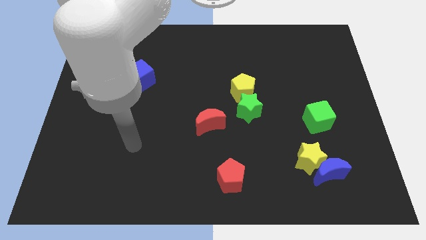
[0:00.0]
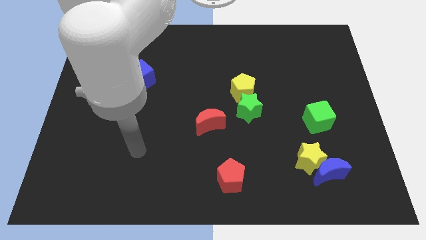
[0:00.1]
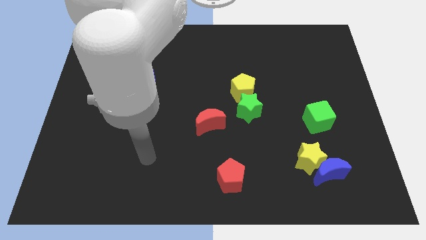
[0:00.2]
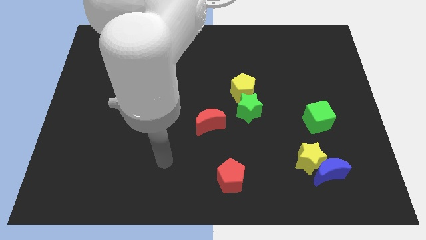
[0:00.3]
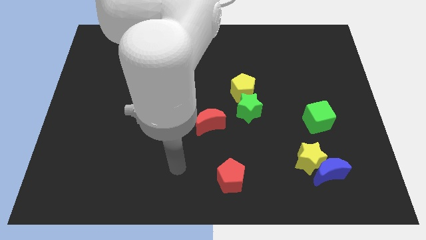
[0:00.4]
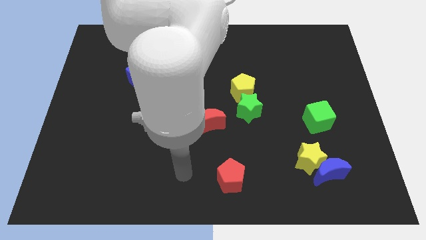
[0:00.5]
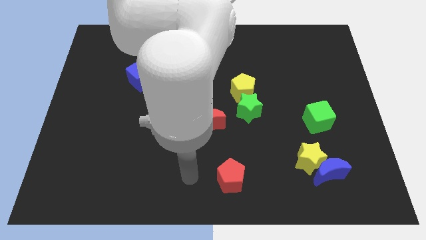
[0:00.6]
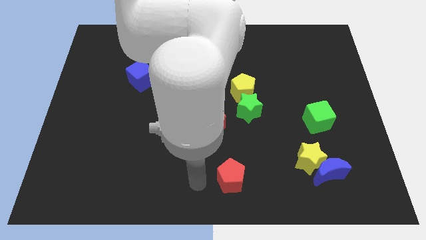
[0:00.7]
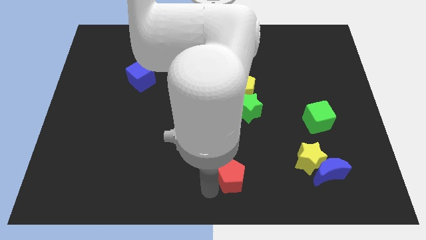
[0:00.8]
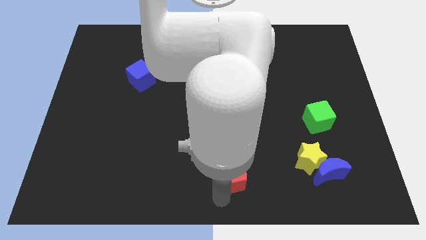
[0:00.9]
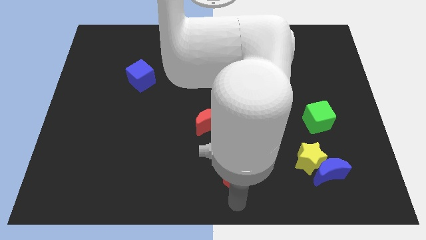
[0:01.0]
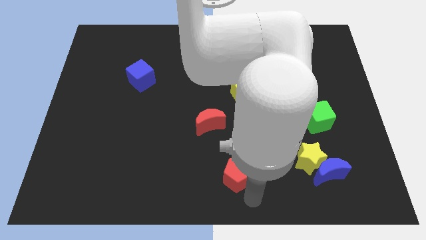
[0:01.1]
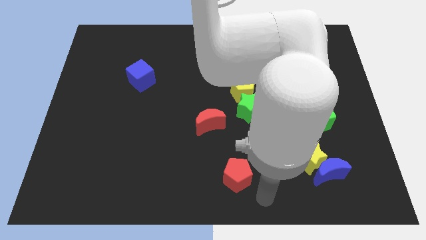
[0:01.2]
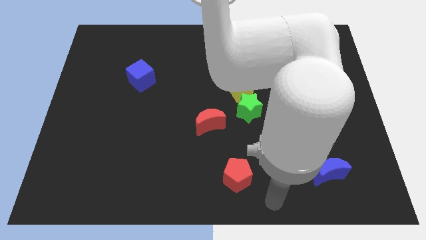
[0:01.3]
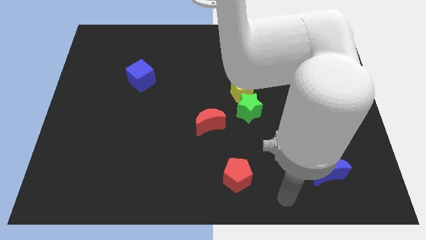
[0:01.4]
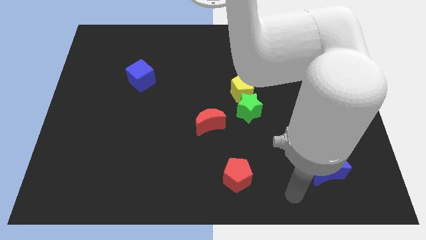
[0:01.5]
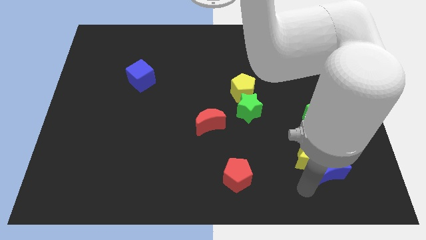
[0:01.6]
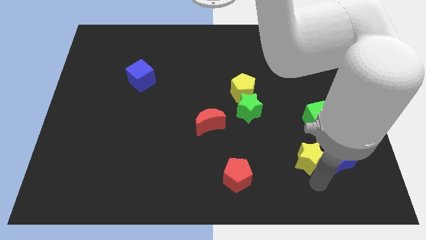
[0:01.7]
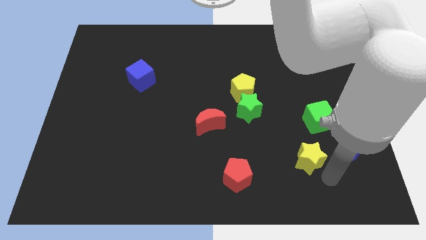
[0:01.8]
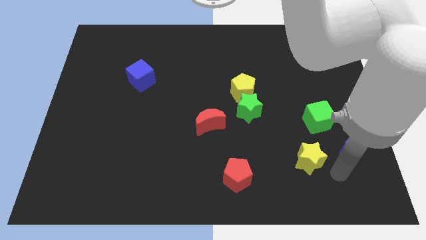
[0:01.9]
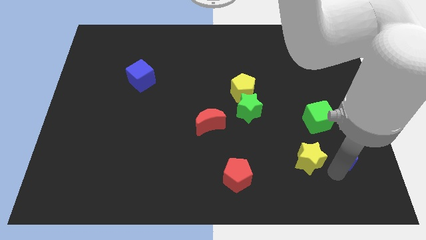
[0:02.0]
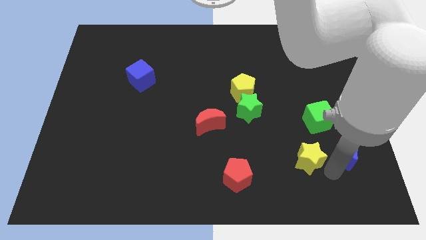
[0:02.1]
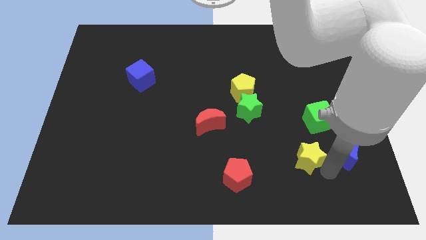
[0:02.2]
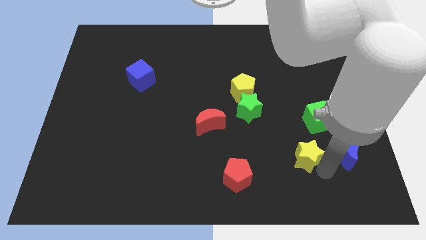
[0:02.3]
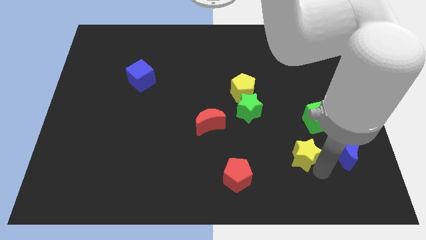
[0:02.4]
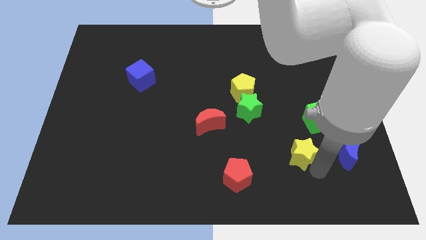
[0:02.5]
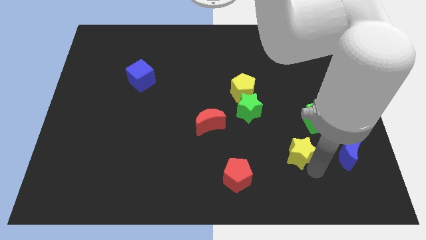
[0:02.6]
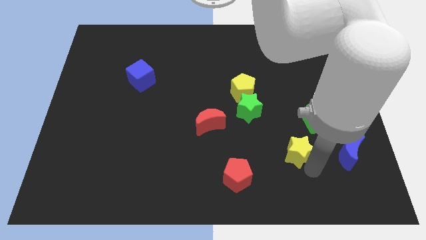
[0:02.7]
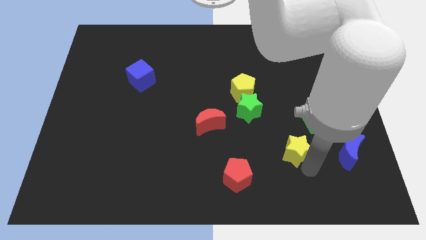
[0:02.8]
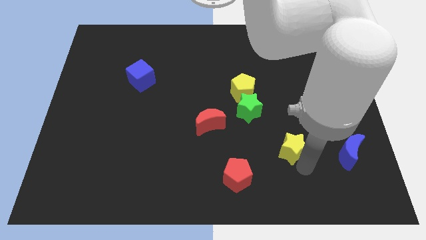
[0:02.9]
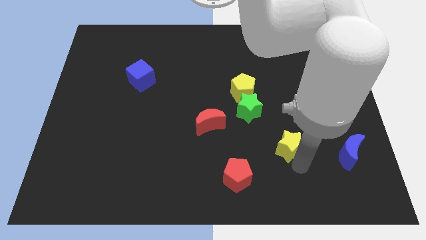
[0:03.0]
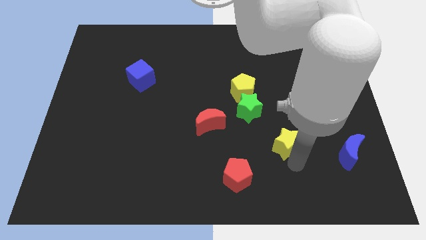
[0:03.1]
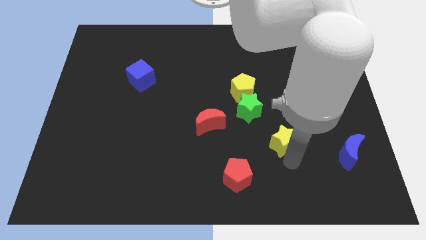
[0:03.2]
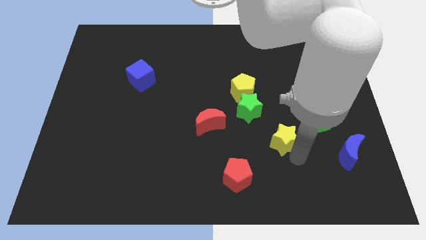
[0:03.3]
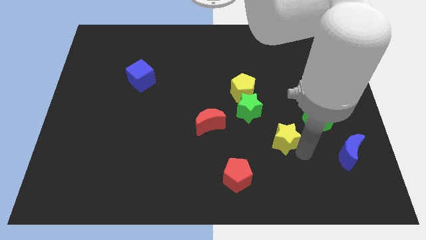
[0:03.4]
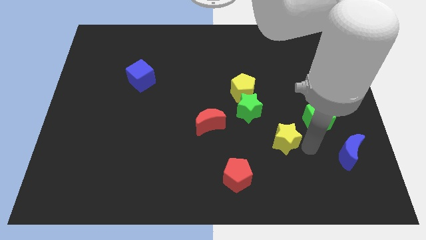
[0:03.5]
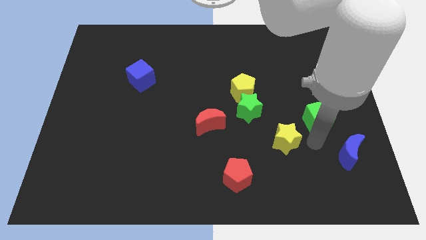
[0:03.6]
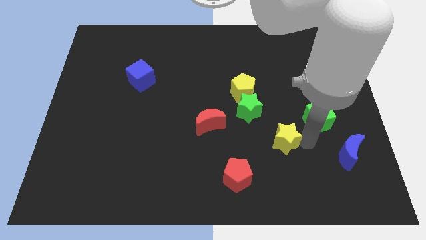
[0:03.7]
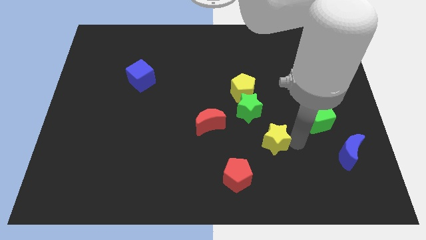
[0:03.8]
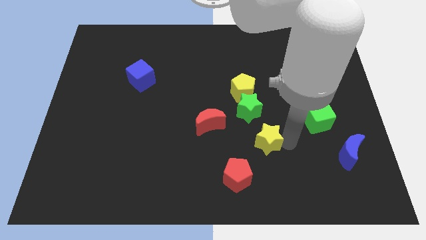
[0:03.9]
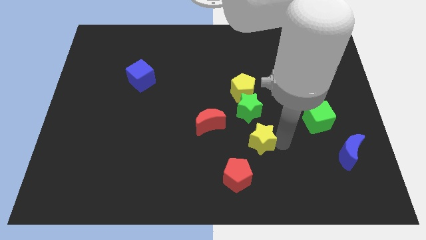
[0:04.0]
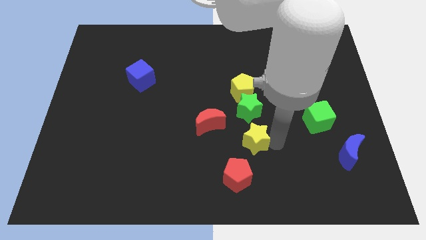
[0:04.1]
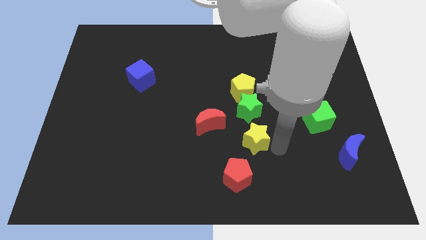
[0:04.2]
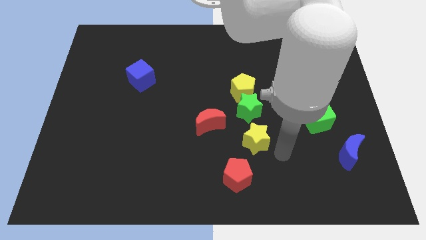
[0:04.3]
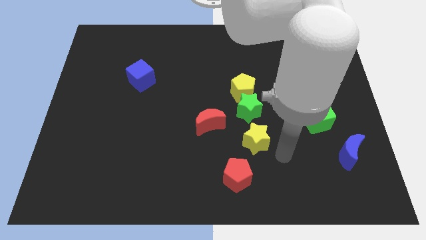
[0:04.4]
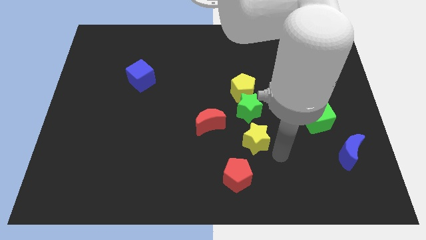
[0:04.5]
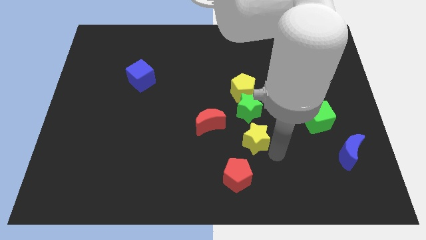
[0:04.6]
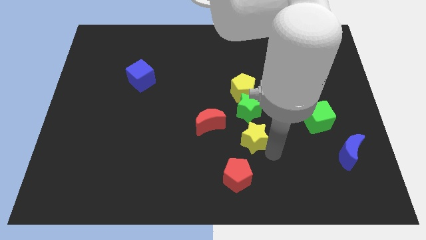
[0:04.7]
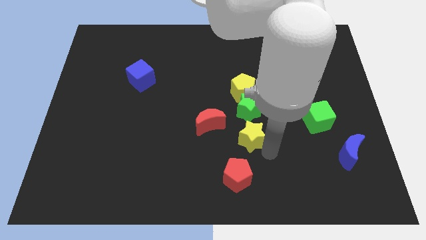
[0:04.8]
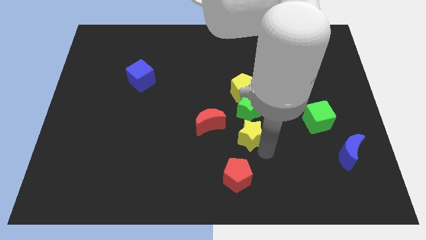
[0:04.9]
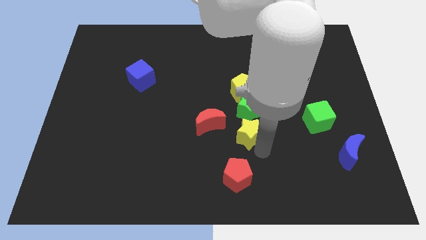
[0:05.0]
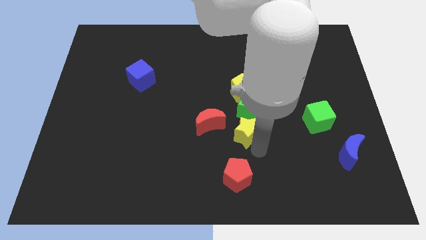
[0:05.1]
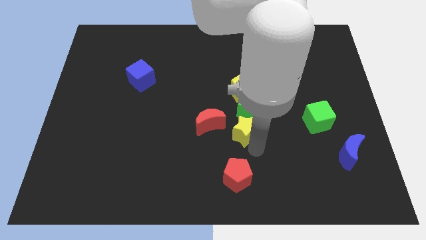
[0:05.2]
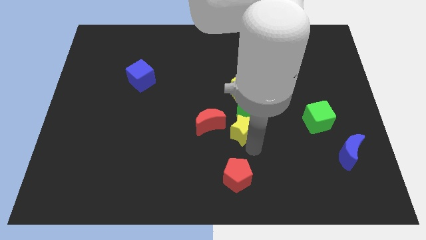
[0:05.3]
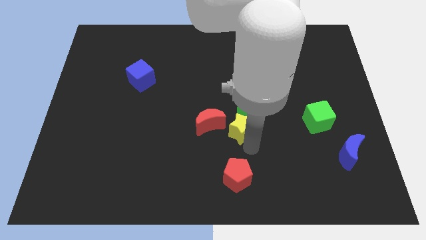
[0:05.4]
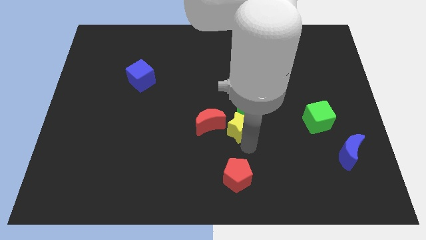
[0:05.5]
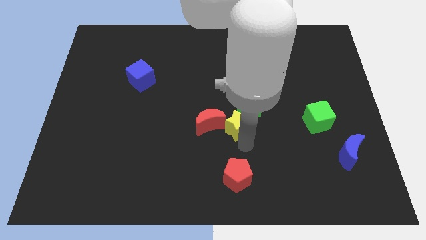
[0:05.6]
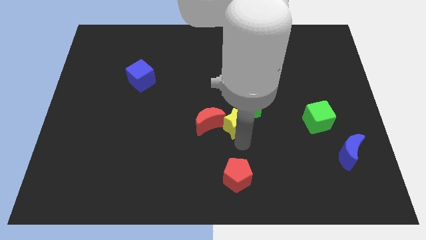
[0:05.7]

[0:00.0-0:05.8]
move the yellow star to the red moon

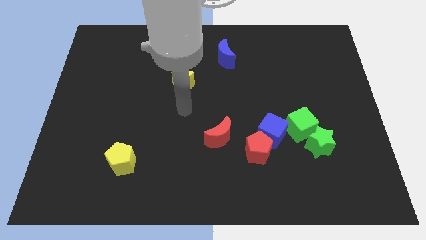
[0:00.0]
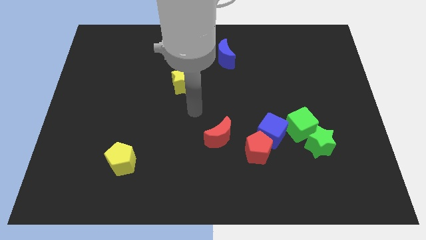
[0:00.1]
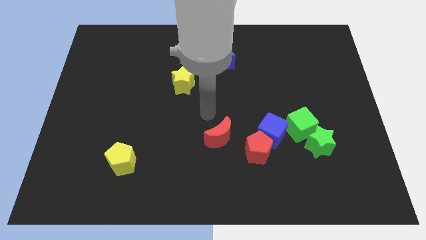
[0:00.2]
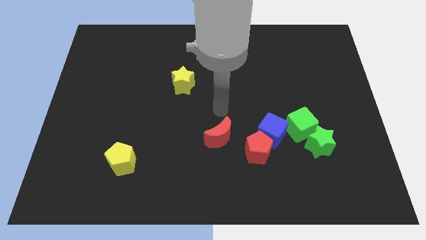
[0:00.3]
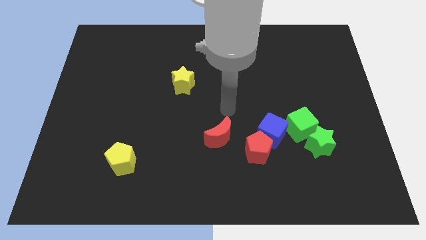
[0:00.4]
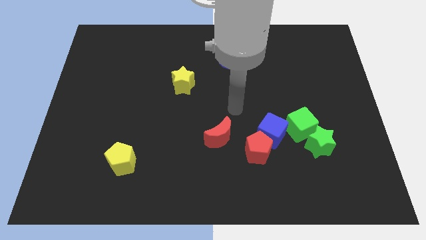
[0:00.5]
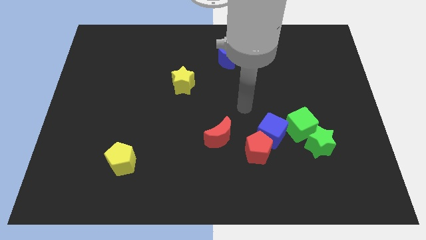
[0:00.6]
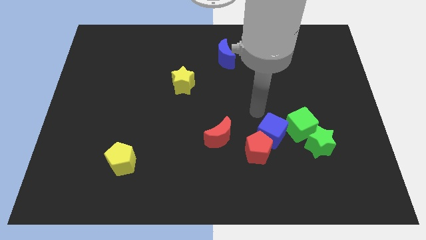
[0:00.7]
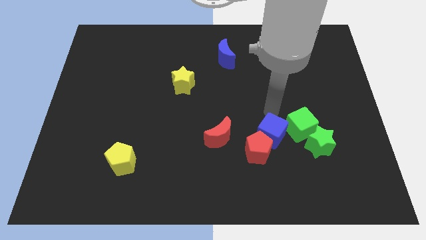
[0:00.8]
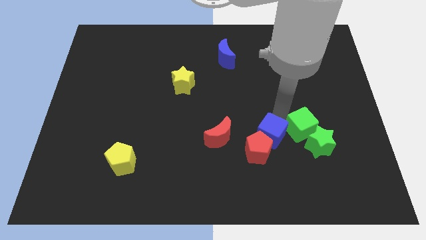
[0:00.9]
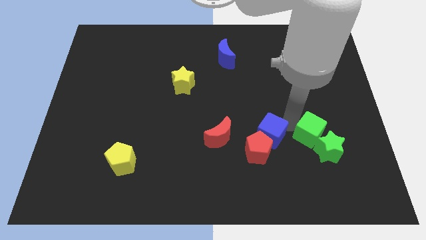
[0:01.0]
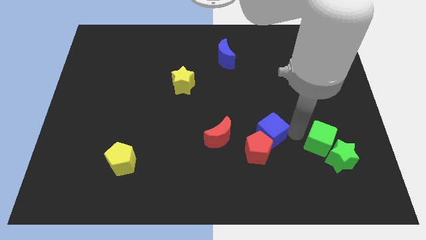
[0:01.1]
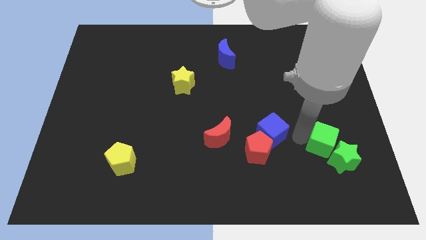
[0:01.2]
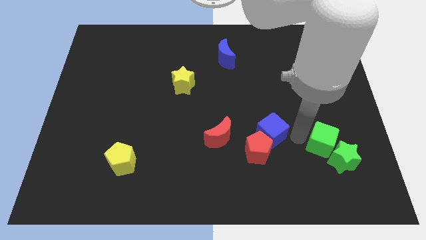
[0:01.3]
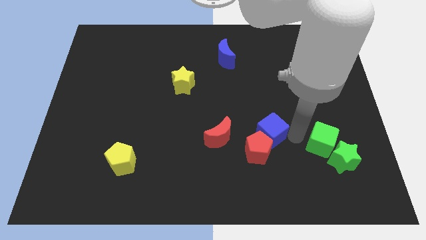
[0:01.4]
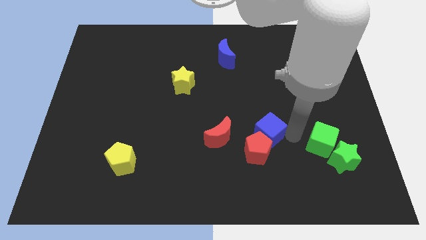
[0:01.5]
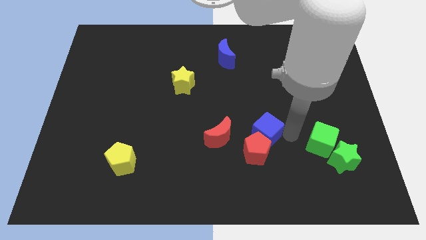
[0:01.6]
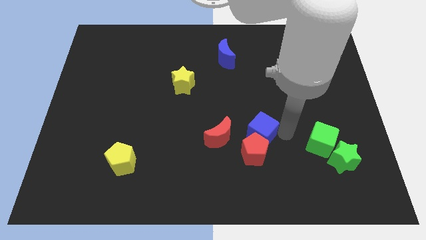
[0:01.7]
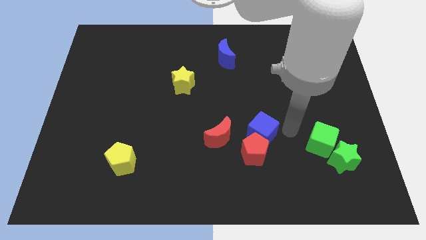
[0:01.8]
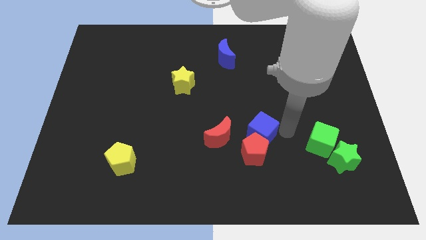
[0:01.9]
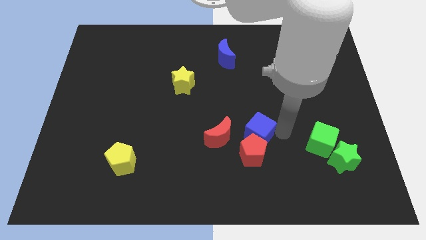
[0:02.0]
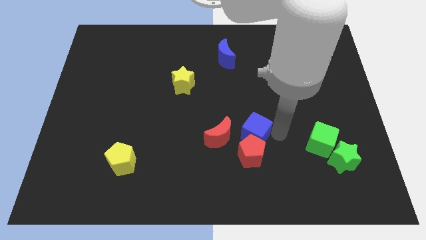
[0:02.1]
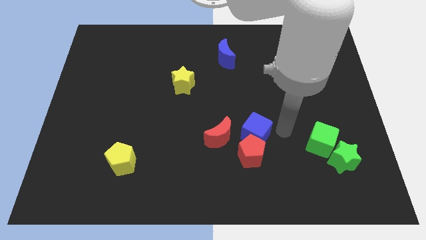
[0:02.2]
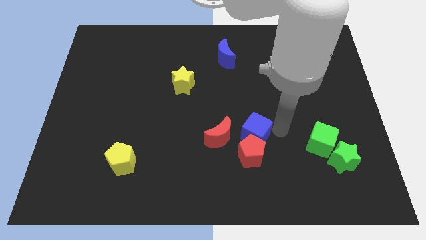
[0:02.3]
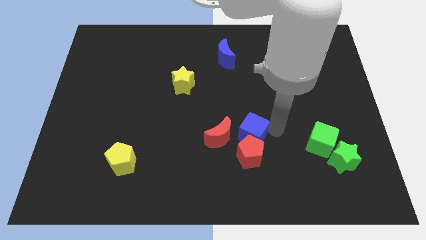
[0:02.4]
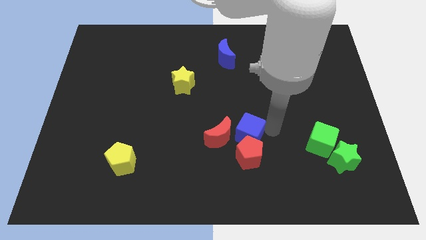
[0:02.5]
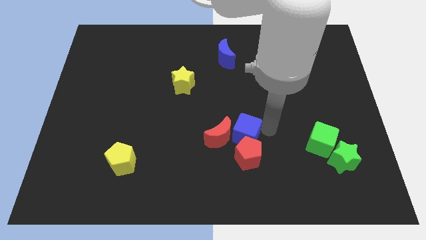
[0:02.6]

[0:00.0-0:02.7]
push the blue cube next to the red moon
